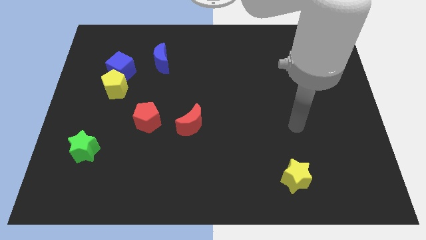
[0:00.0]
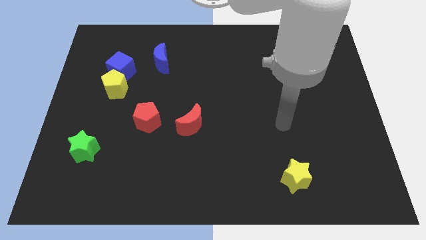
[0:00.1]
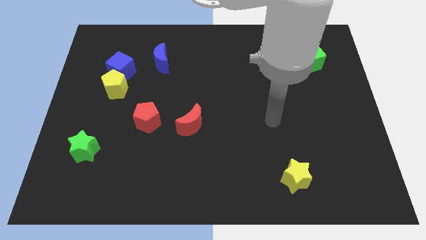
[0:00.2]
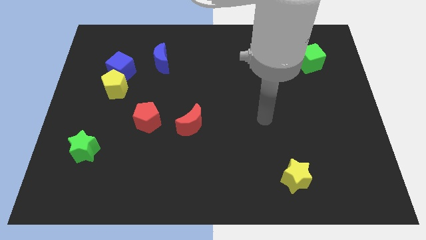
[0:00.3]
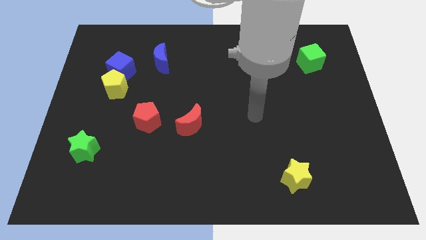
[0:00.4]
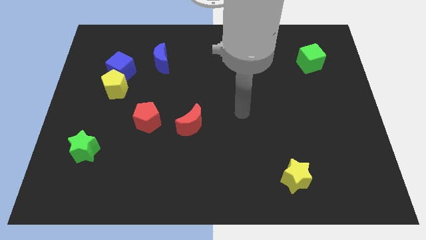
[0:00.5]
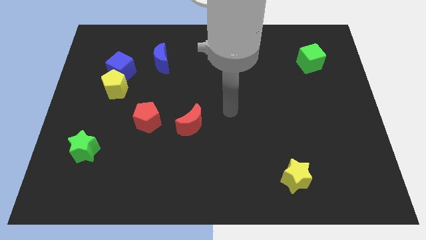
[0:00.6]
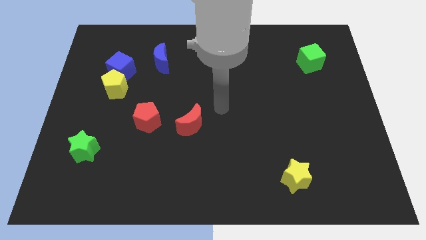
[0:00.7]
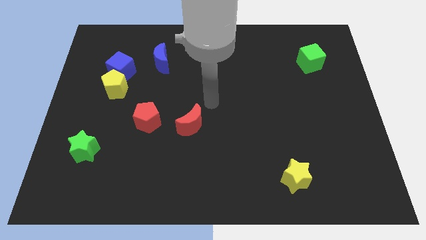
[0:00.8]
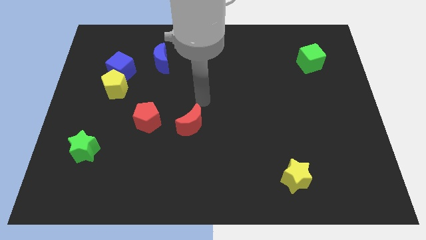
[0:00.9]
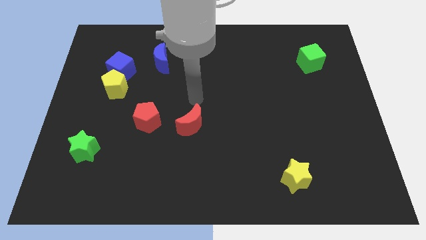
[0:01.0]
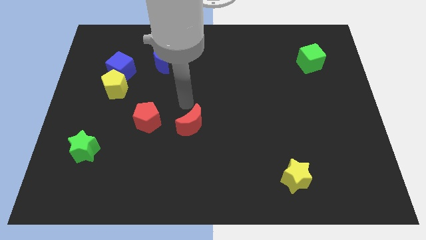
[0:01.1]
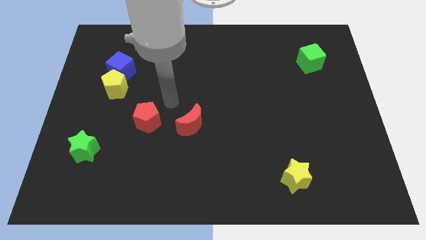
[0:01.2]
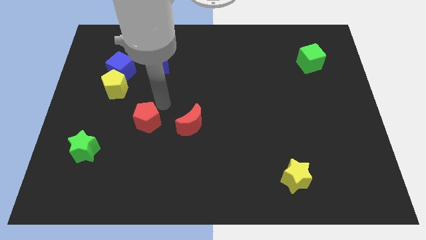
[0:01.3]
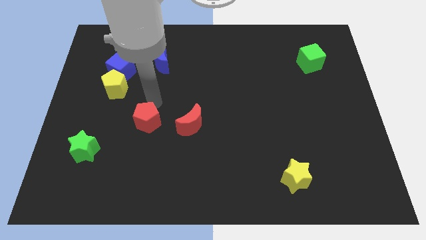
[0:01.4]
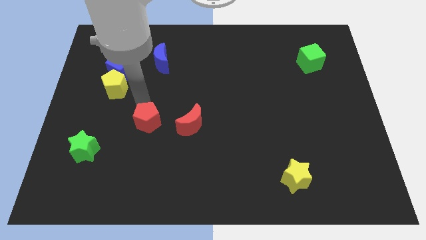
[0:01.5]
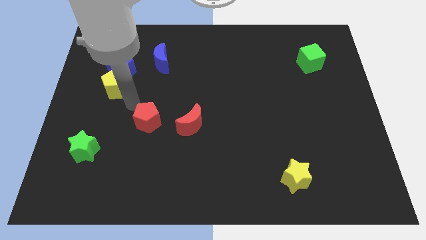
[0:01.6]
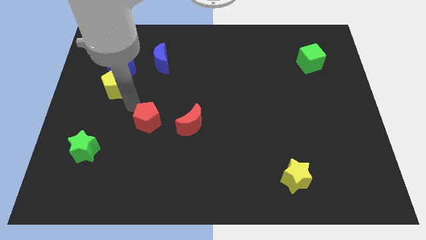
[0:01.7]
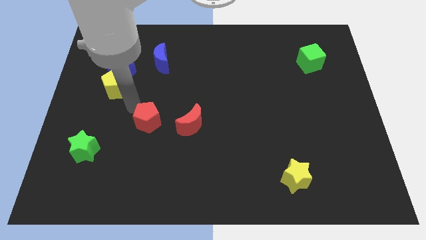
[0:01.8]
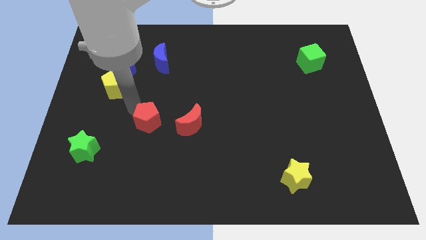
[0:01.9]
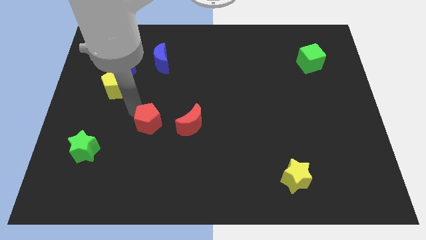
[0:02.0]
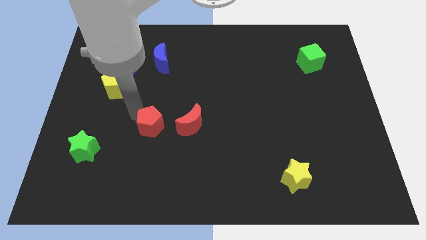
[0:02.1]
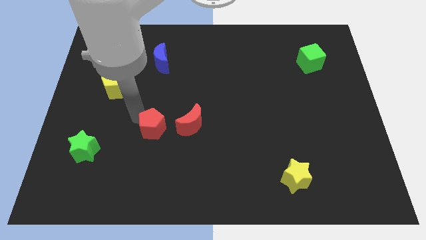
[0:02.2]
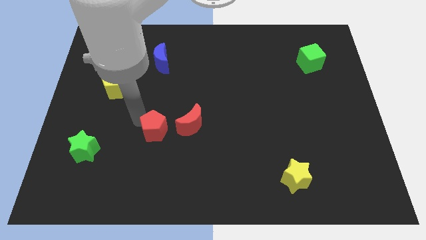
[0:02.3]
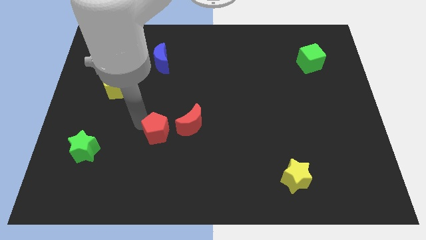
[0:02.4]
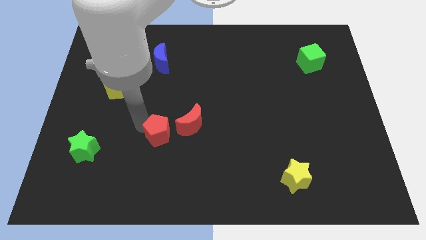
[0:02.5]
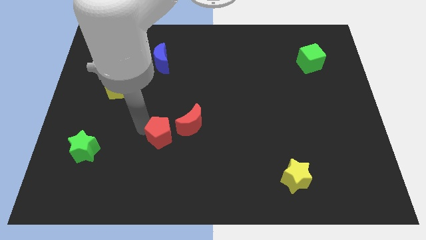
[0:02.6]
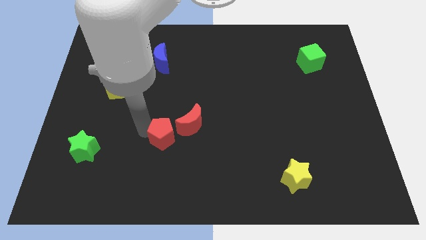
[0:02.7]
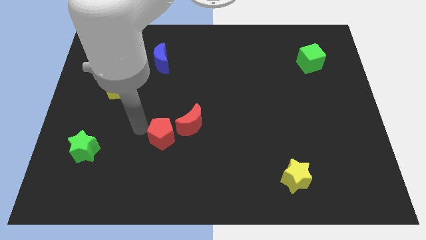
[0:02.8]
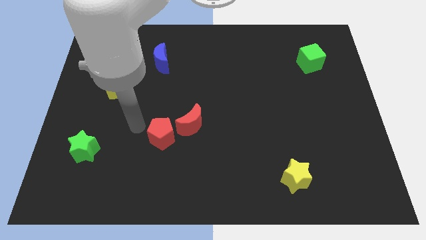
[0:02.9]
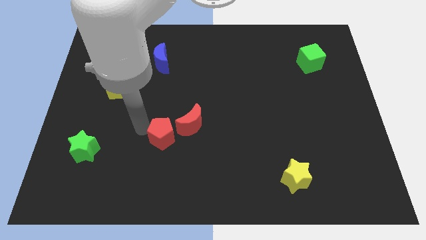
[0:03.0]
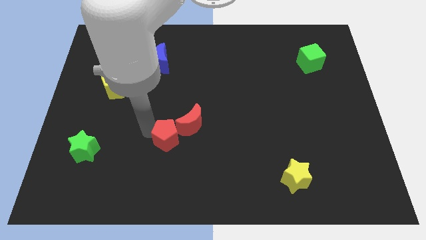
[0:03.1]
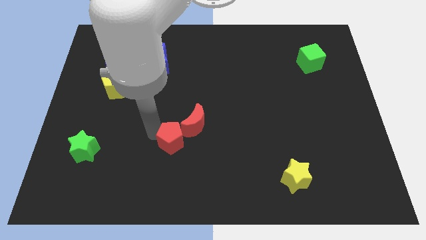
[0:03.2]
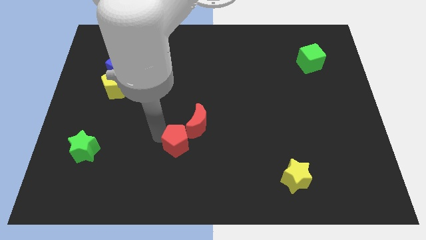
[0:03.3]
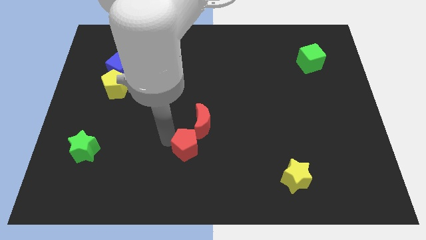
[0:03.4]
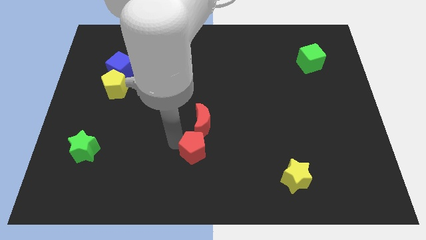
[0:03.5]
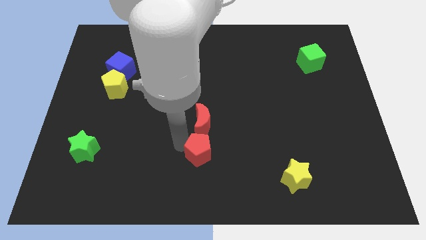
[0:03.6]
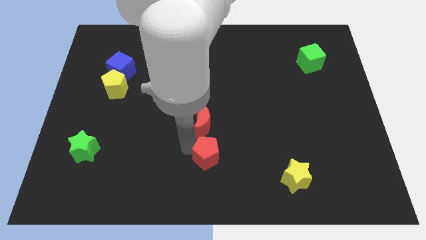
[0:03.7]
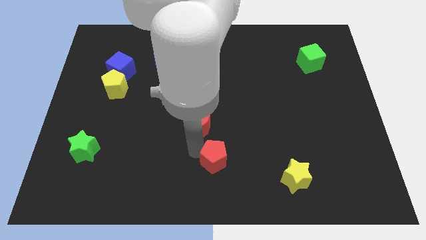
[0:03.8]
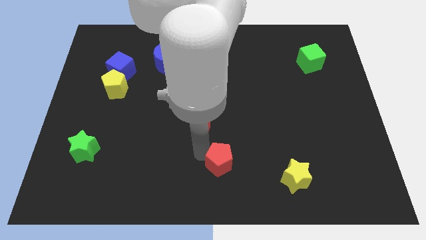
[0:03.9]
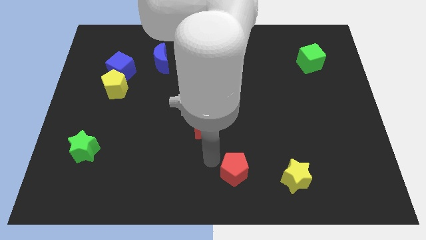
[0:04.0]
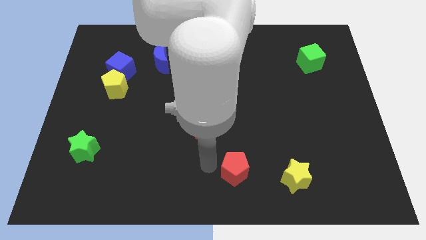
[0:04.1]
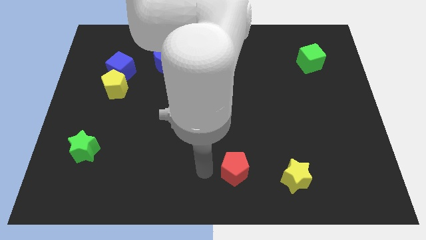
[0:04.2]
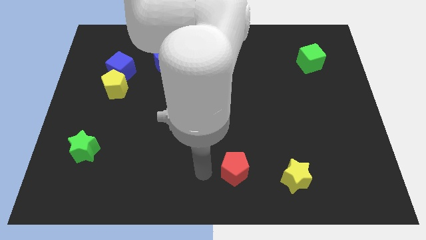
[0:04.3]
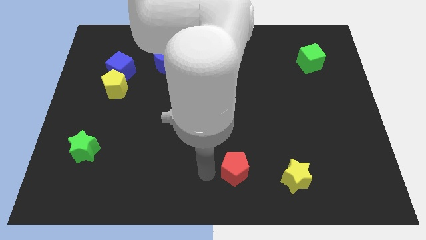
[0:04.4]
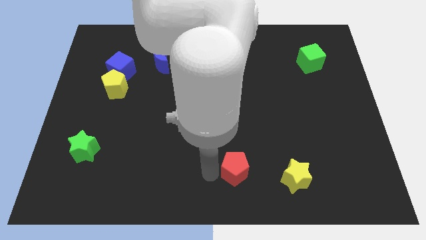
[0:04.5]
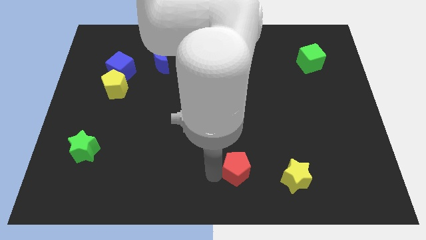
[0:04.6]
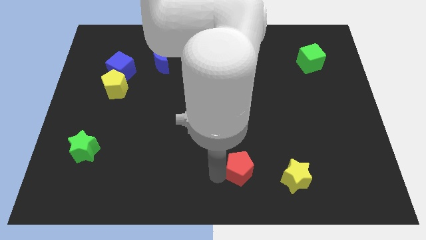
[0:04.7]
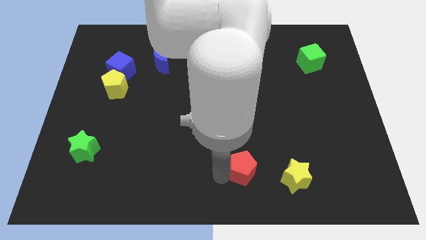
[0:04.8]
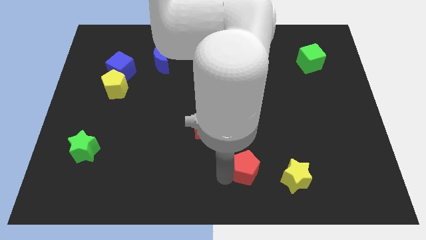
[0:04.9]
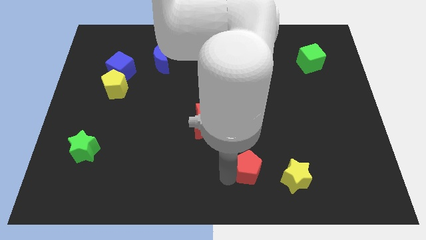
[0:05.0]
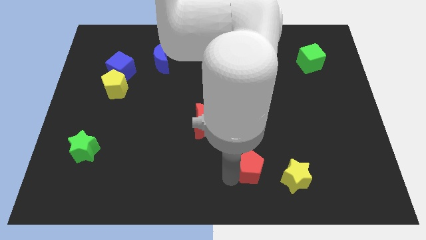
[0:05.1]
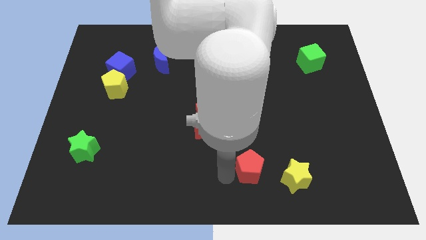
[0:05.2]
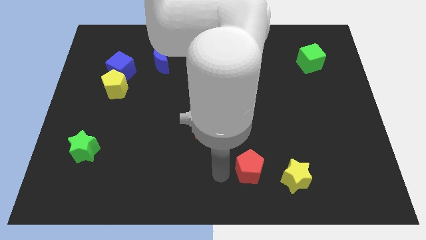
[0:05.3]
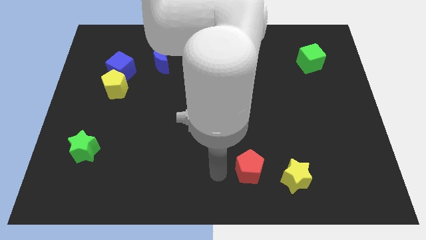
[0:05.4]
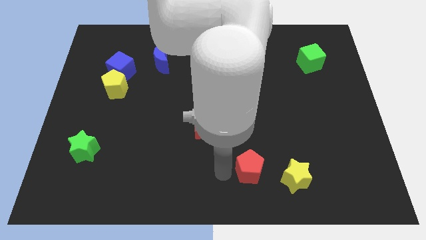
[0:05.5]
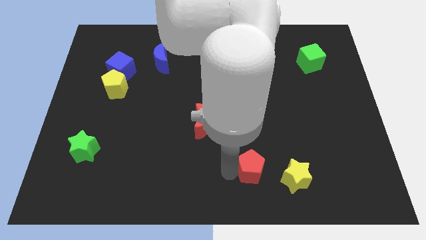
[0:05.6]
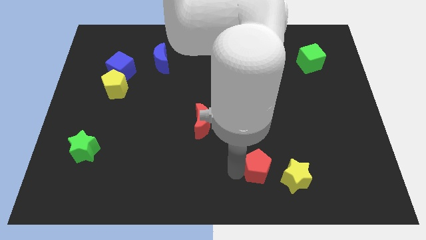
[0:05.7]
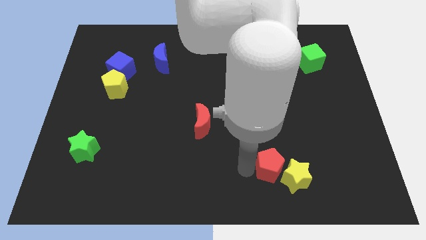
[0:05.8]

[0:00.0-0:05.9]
move the red pentagon towards the yellow star

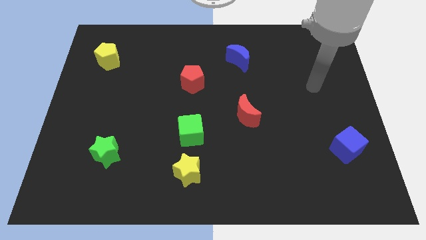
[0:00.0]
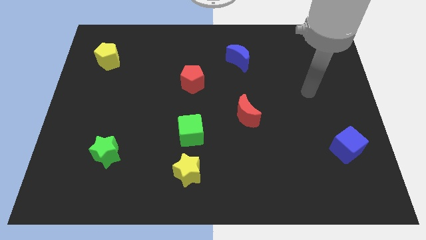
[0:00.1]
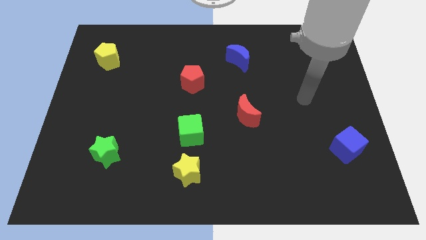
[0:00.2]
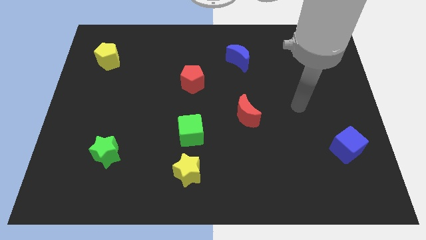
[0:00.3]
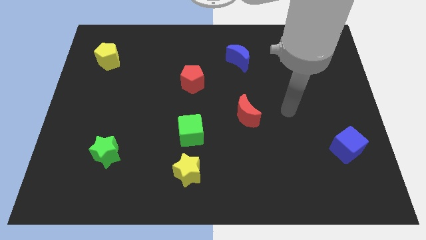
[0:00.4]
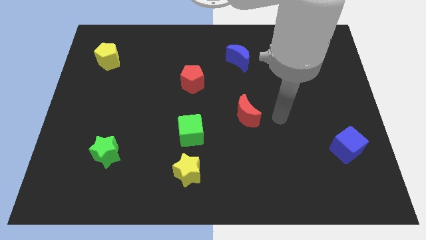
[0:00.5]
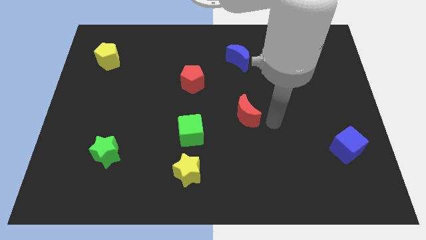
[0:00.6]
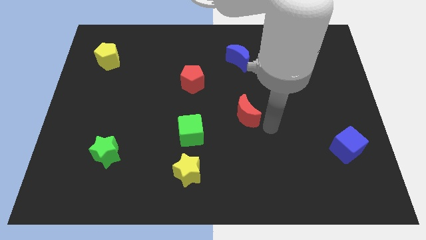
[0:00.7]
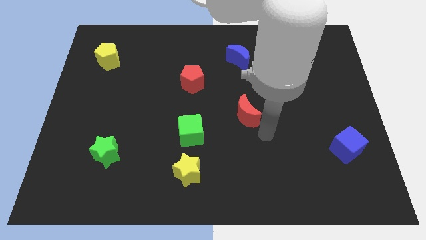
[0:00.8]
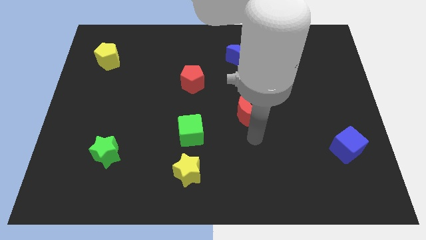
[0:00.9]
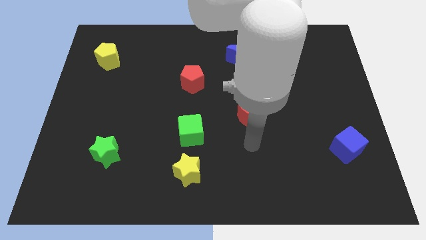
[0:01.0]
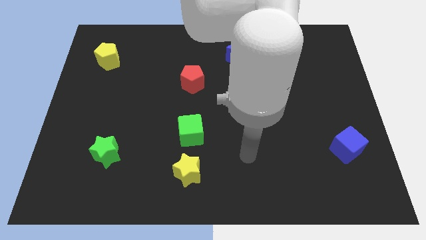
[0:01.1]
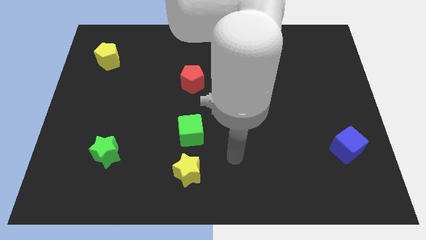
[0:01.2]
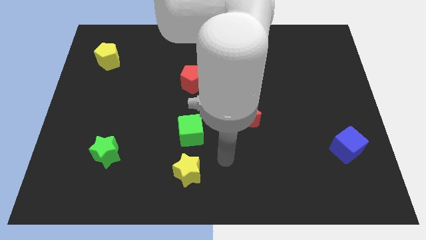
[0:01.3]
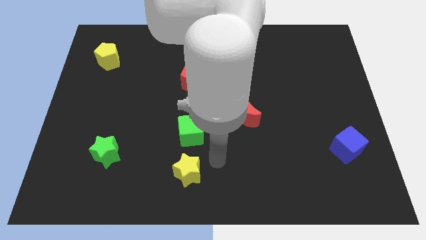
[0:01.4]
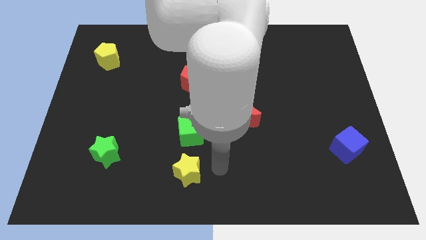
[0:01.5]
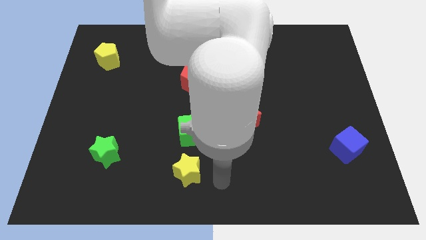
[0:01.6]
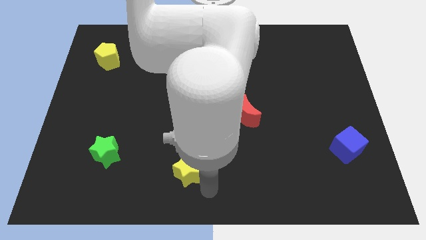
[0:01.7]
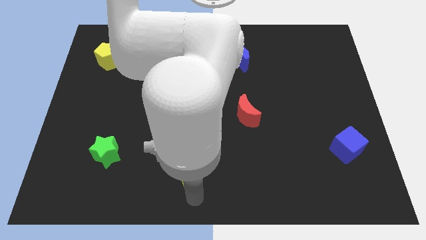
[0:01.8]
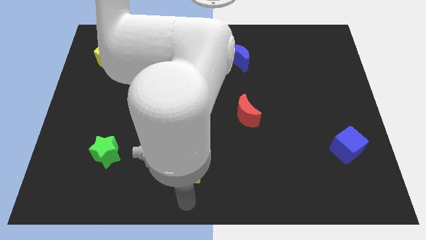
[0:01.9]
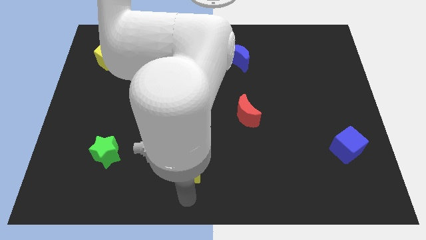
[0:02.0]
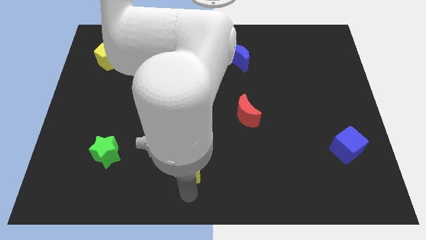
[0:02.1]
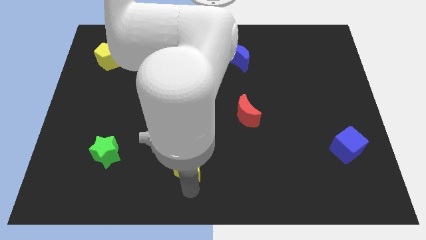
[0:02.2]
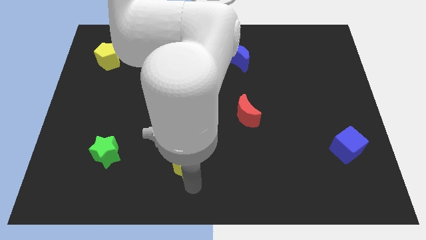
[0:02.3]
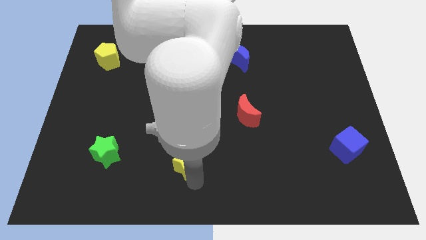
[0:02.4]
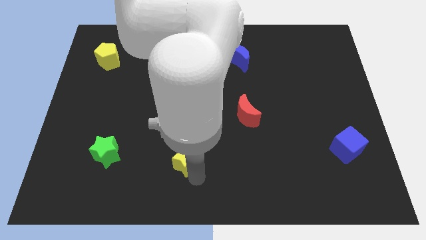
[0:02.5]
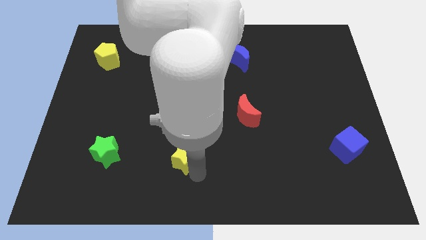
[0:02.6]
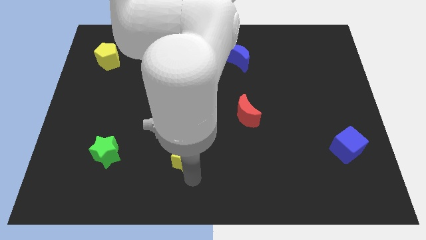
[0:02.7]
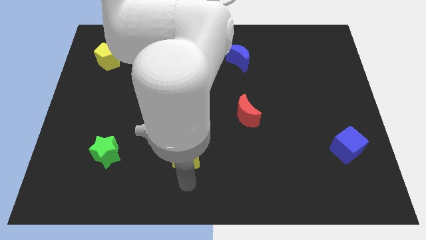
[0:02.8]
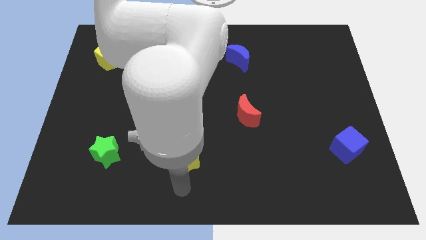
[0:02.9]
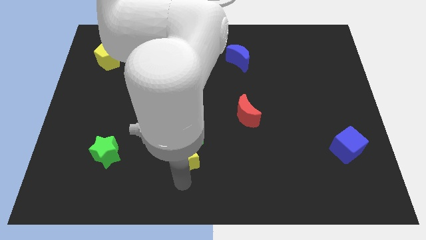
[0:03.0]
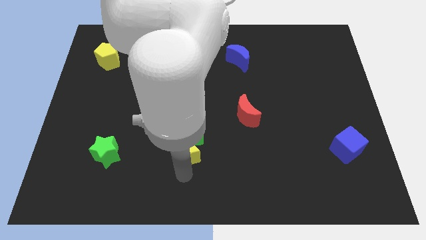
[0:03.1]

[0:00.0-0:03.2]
slide the yellow star to the green cube
